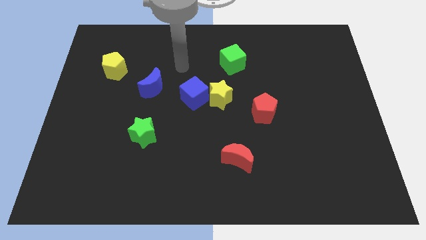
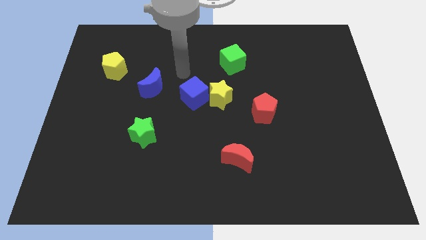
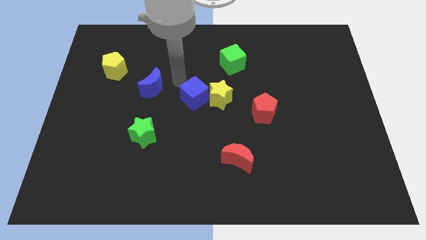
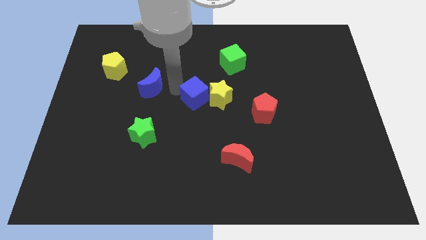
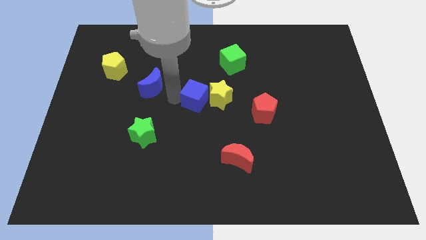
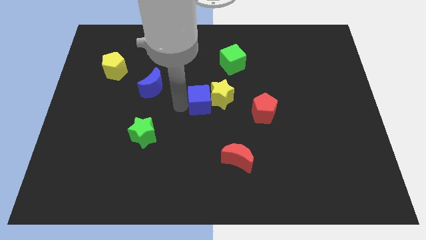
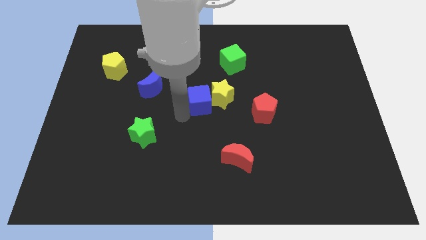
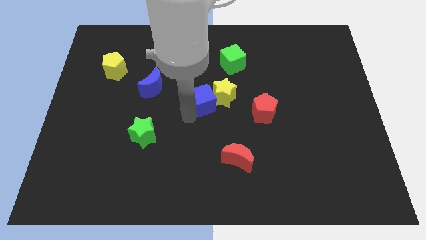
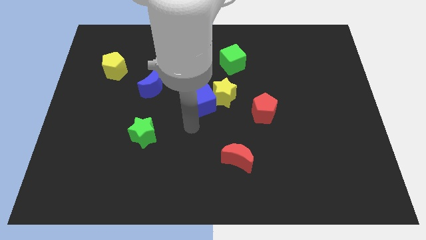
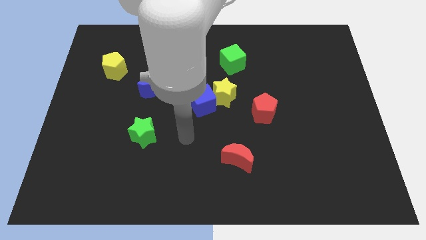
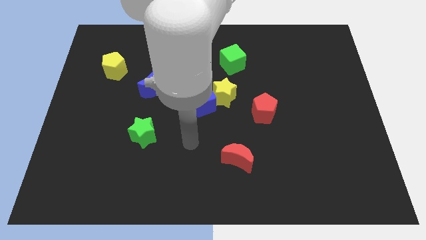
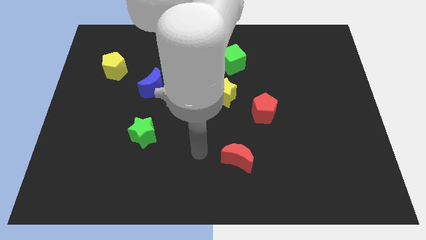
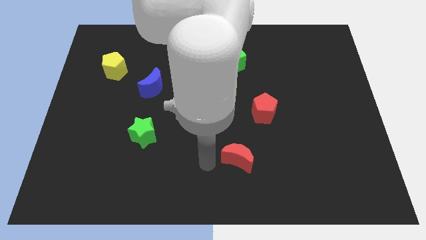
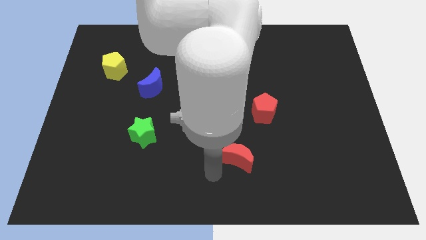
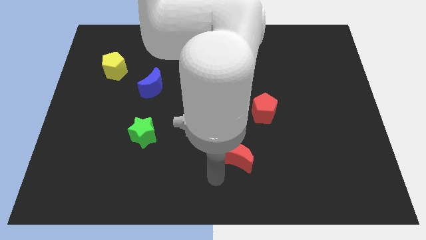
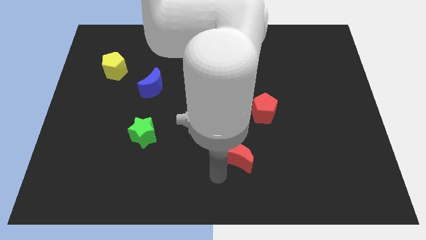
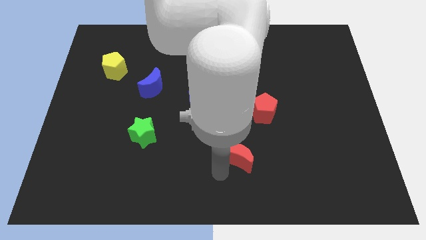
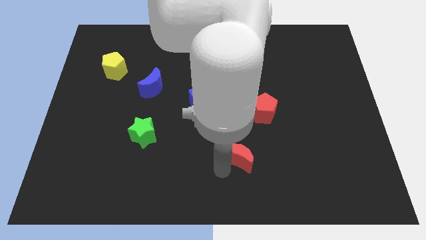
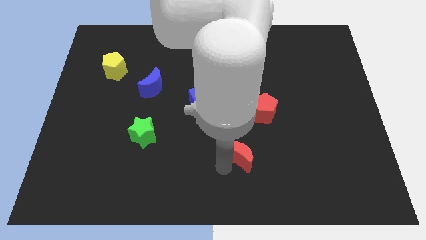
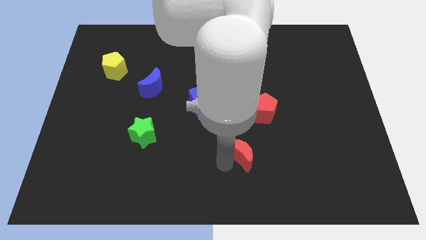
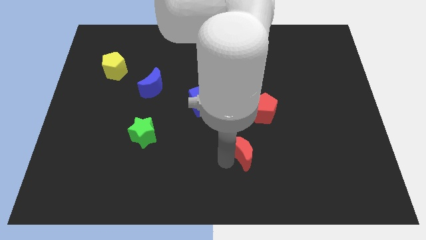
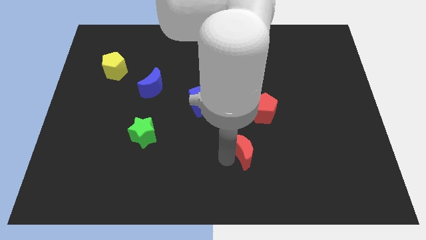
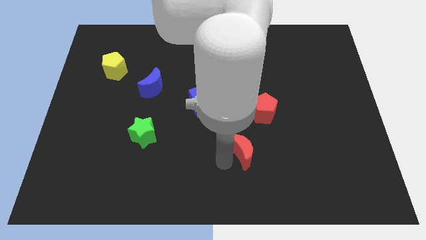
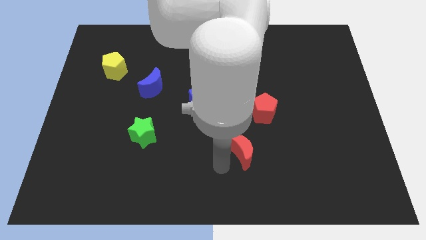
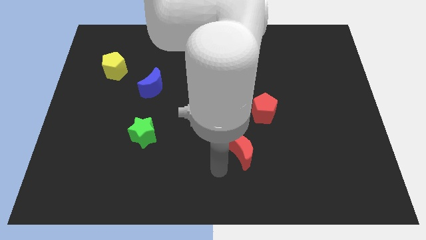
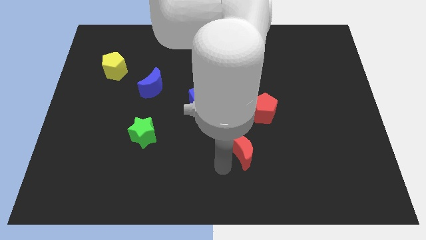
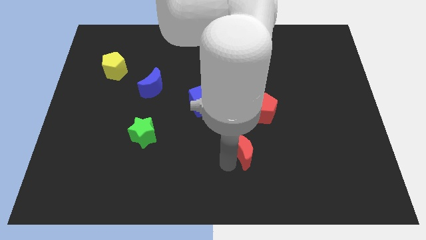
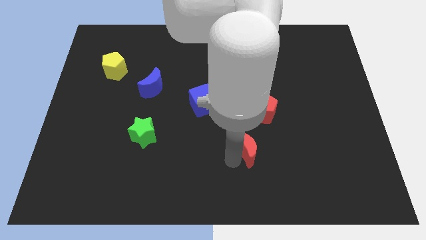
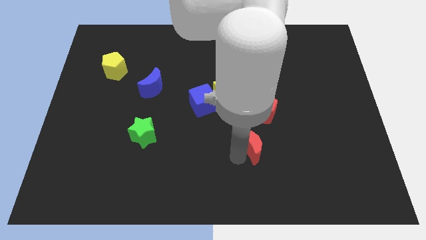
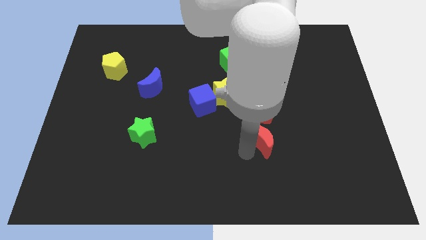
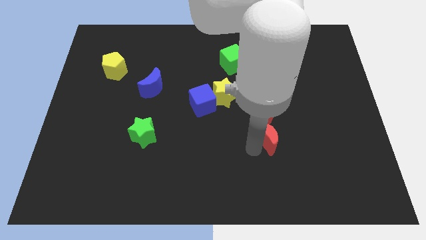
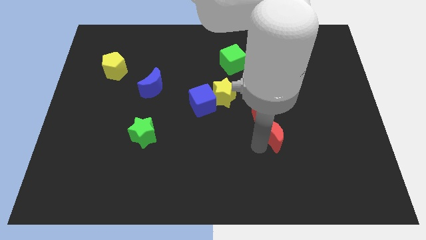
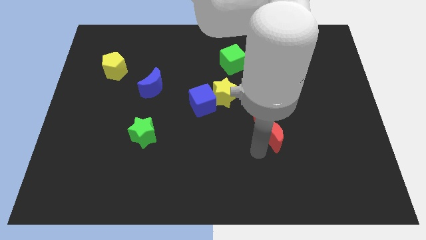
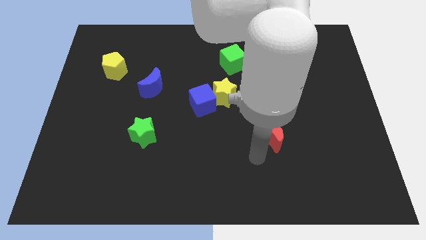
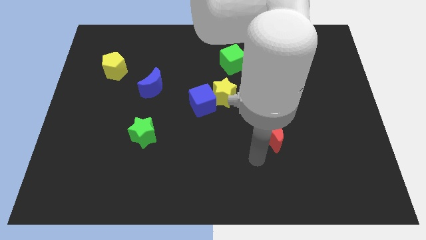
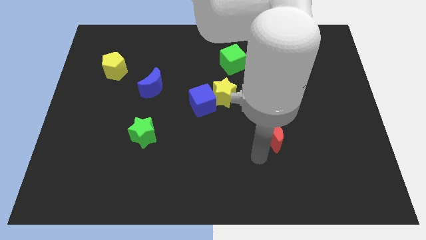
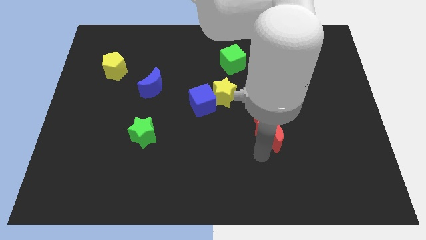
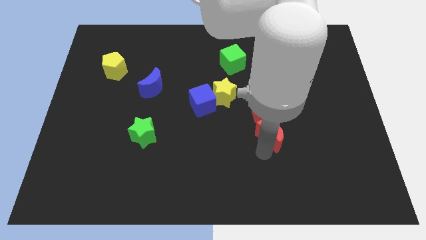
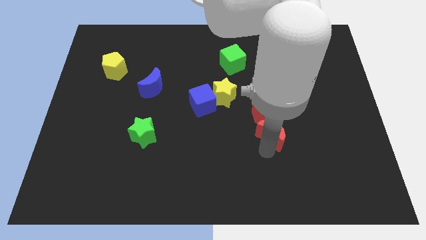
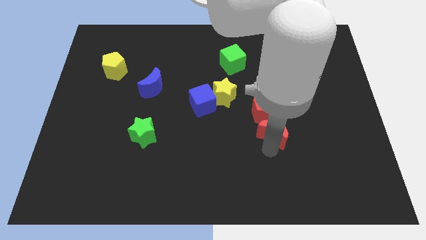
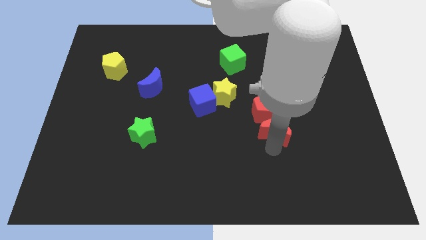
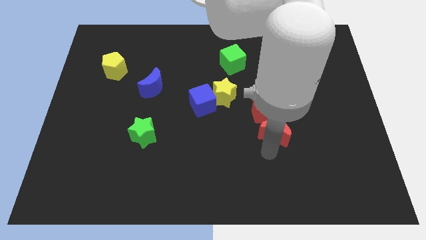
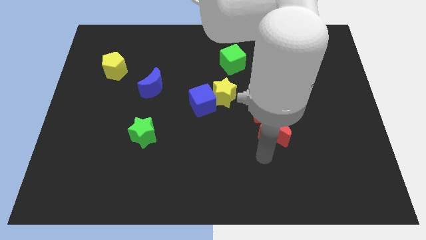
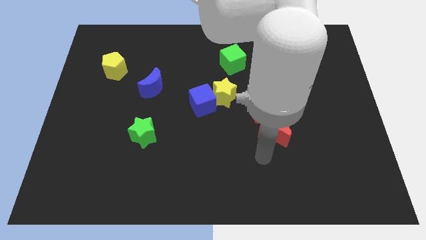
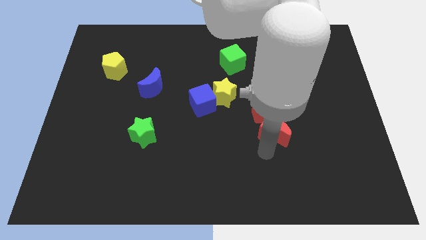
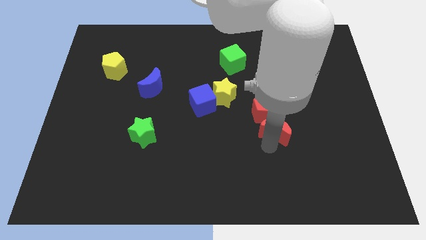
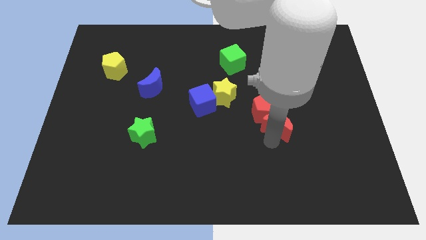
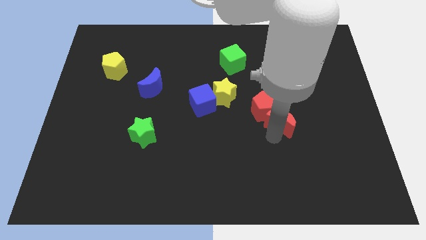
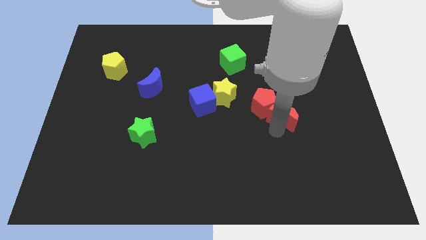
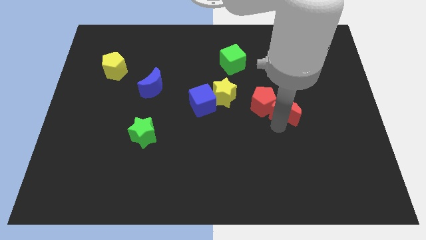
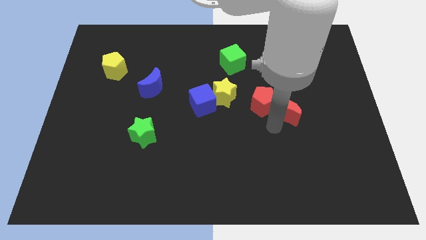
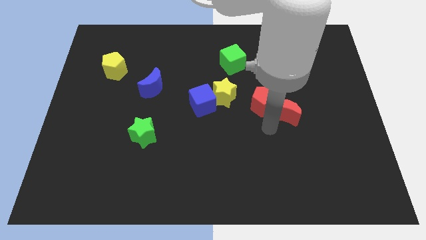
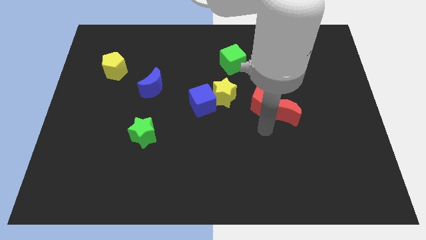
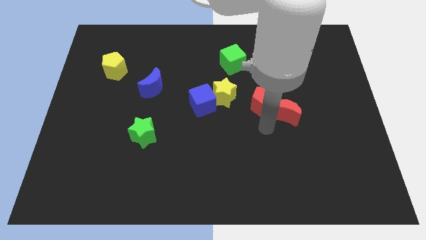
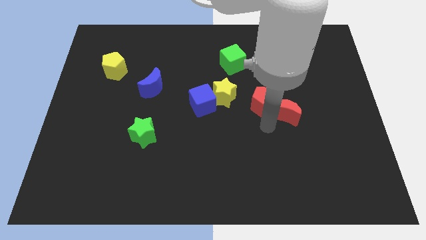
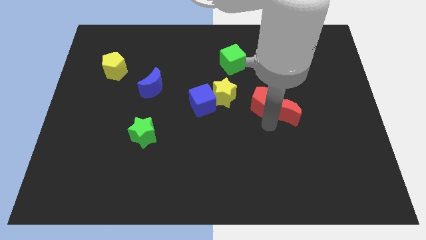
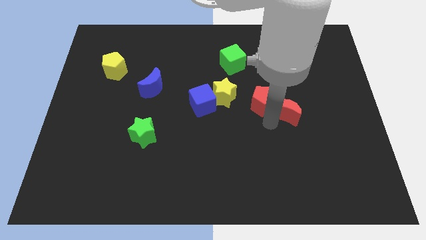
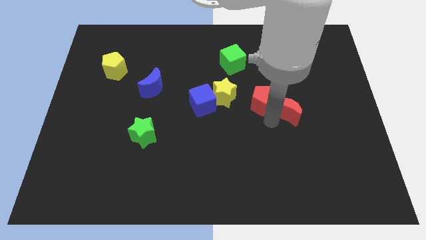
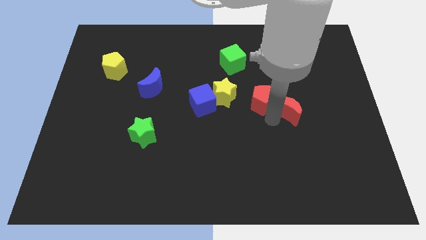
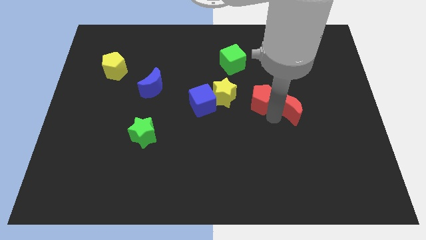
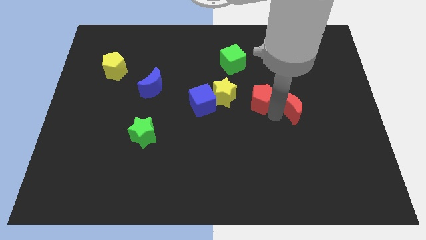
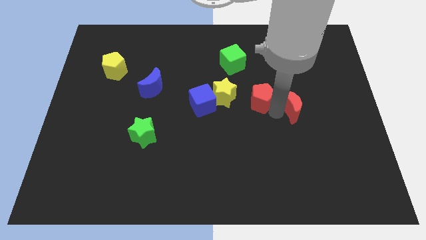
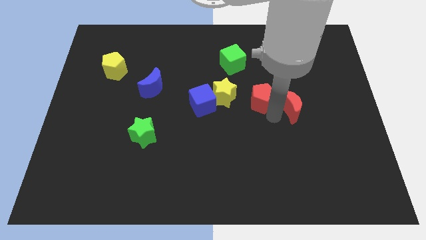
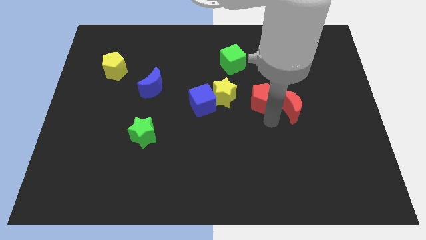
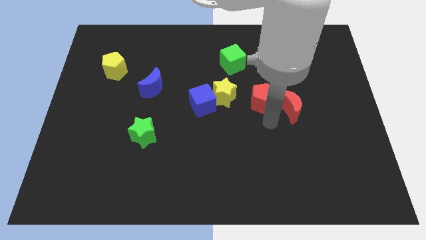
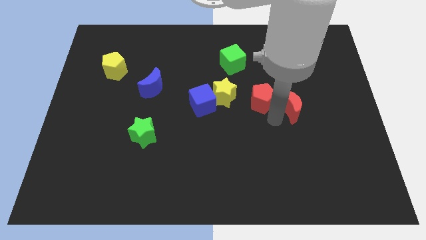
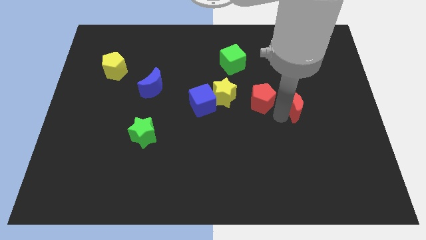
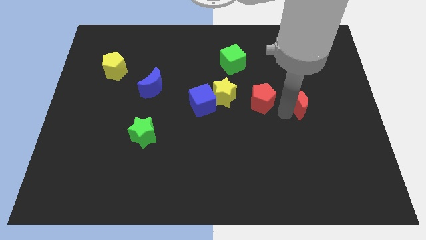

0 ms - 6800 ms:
slide the red moon upwards and then right

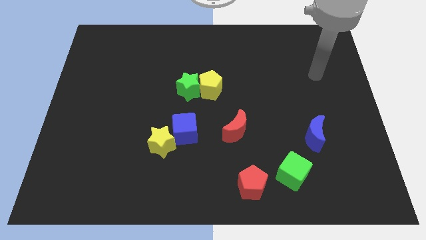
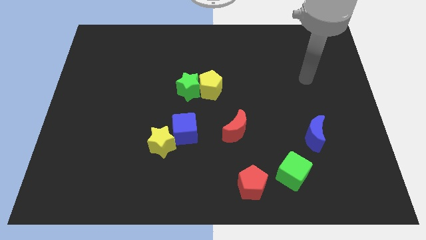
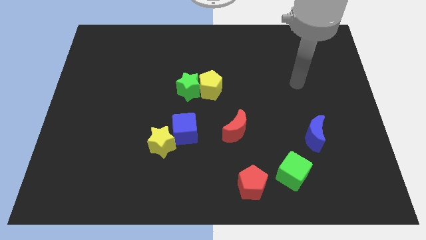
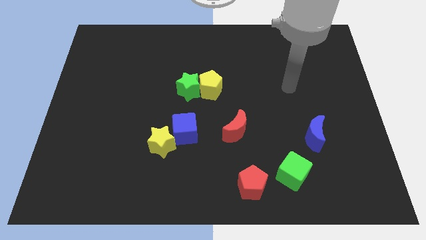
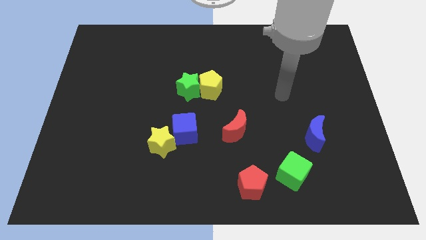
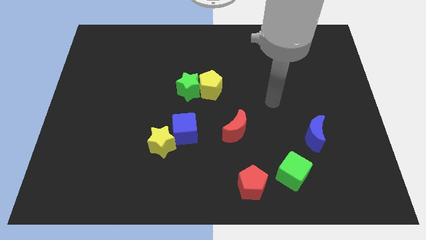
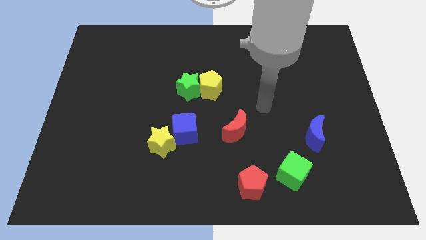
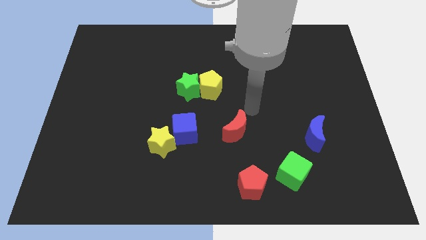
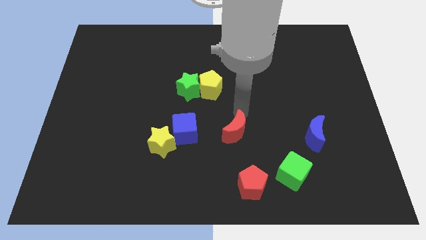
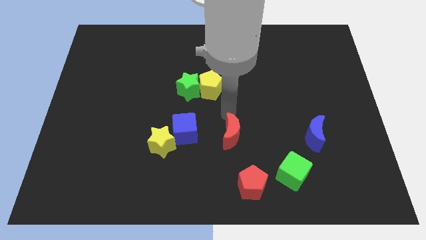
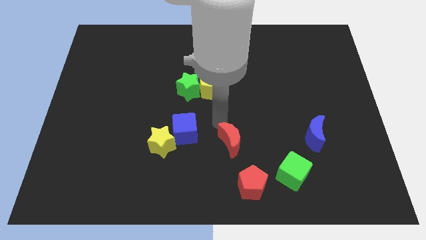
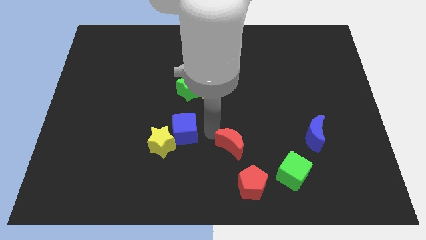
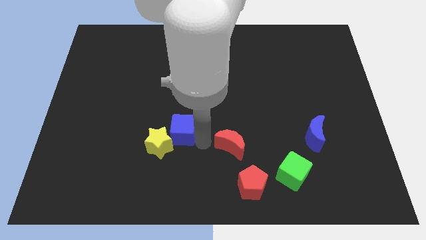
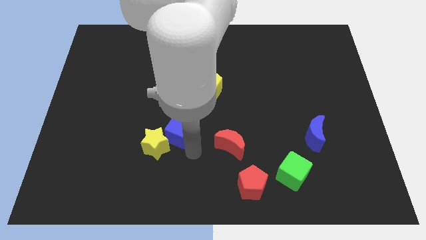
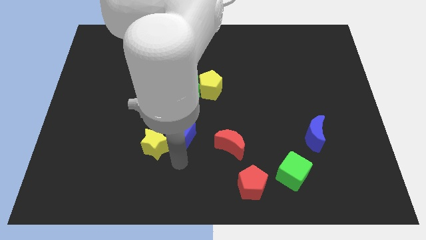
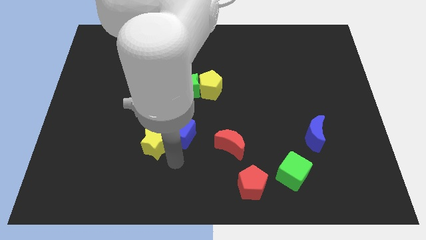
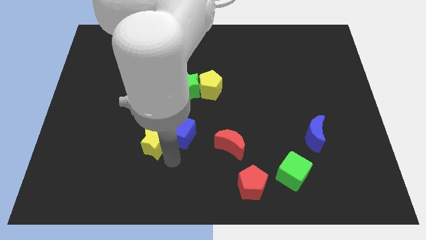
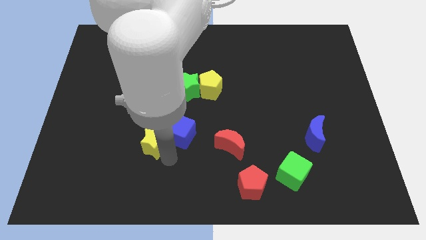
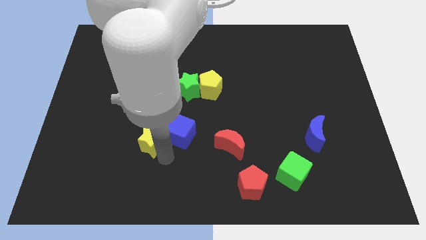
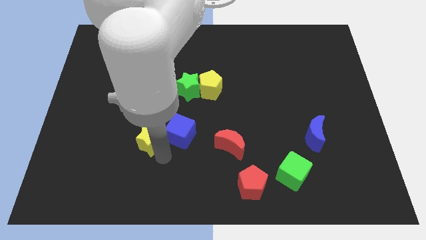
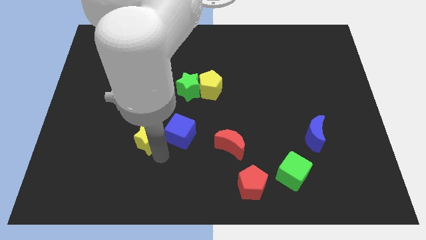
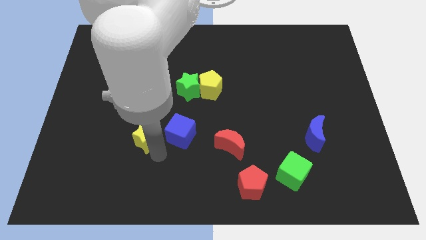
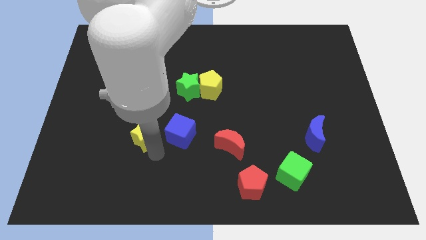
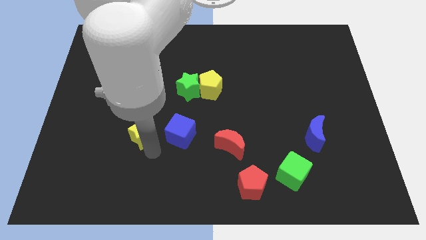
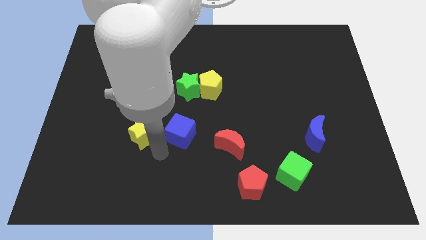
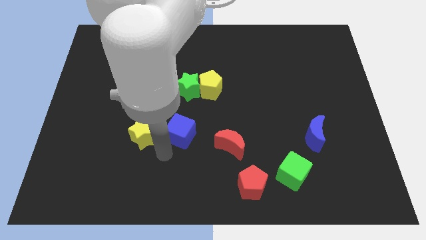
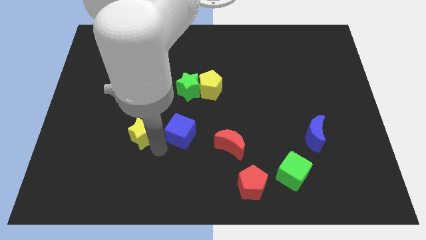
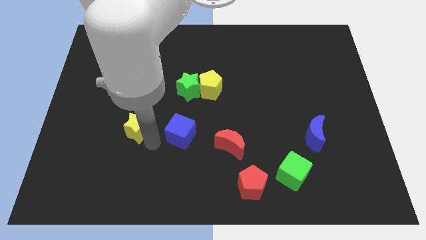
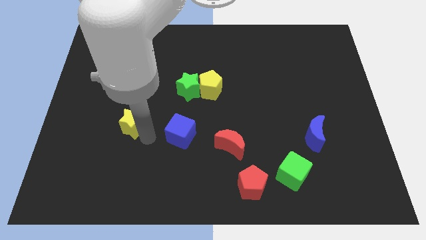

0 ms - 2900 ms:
slide the yellow star slightly up and to the left diagonally
